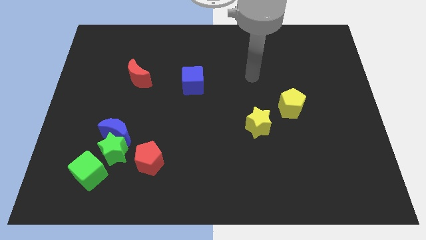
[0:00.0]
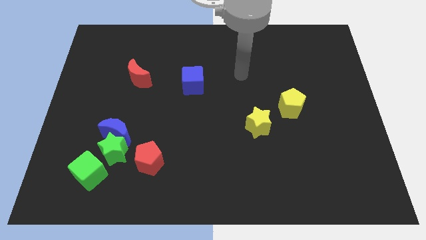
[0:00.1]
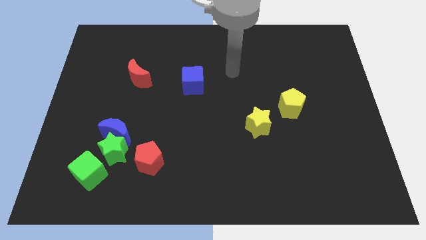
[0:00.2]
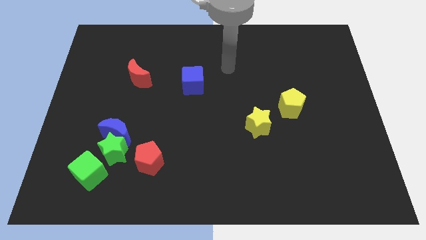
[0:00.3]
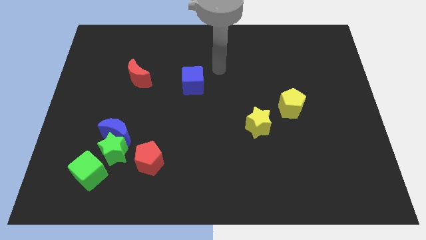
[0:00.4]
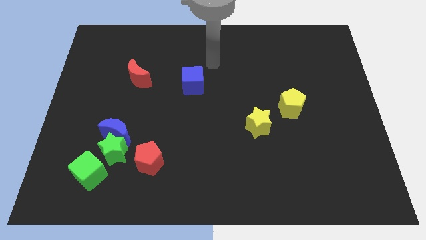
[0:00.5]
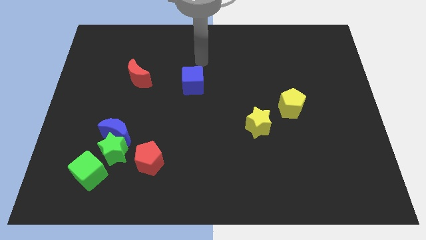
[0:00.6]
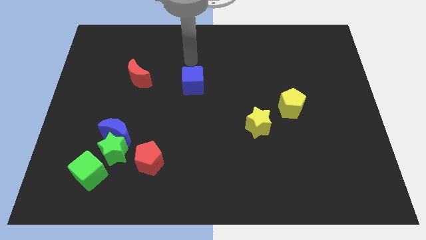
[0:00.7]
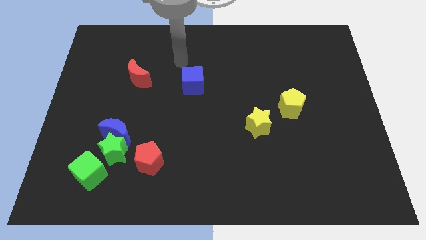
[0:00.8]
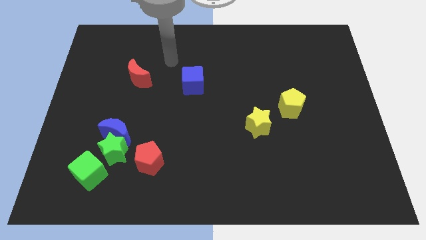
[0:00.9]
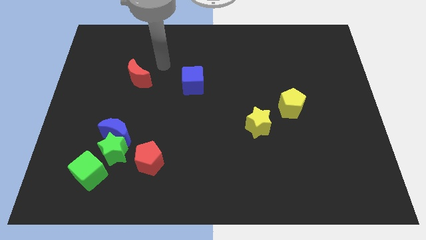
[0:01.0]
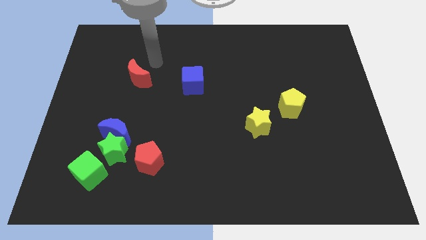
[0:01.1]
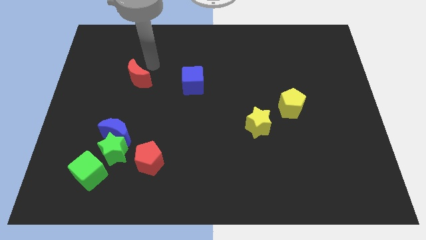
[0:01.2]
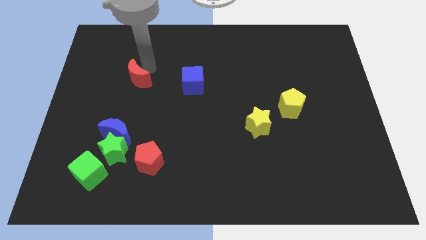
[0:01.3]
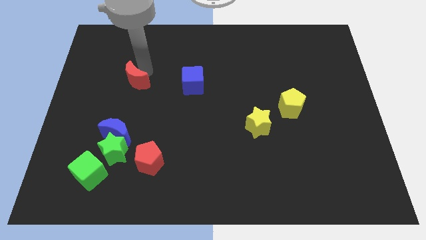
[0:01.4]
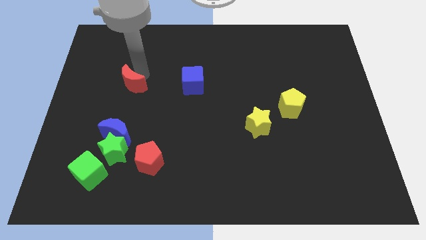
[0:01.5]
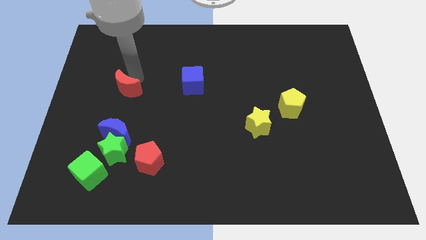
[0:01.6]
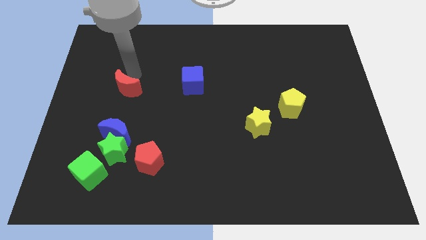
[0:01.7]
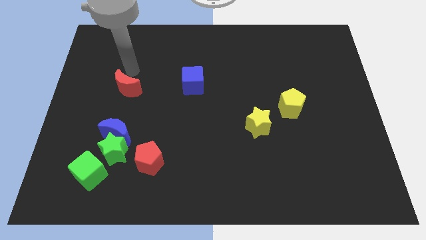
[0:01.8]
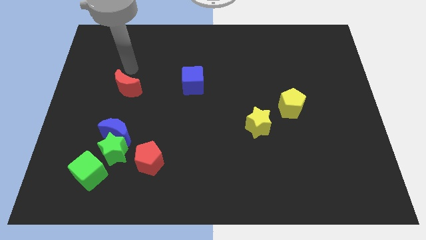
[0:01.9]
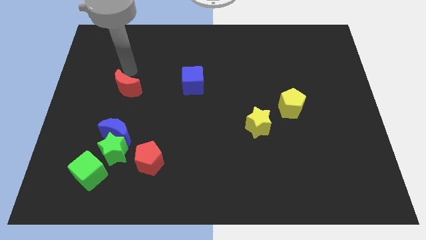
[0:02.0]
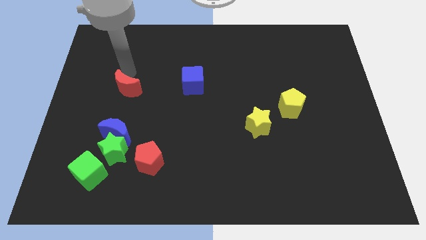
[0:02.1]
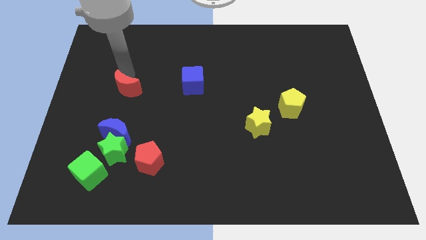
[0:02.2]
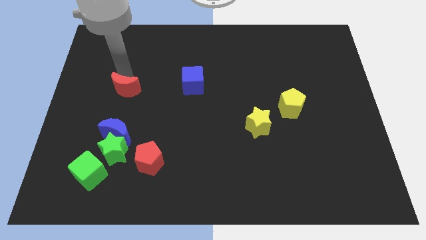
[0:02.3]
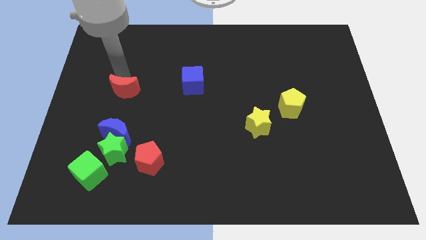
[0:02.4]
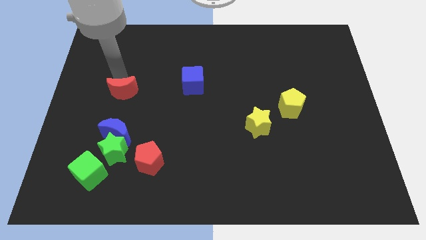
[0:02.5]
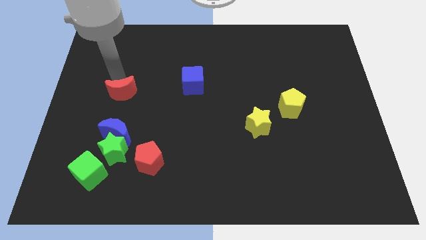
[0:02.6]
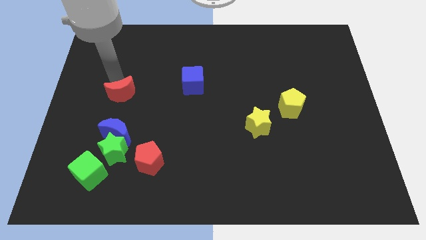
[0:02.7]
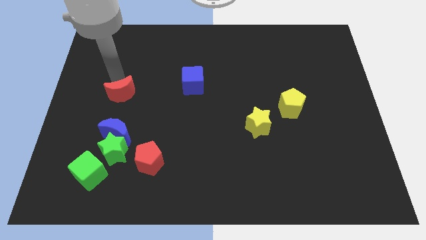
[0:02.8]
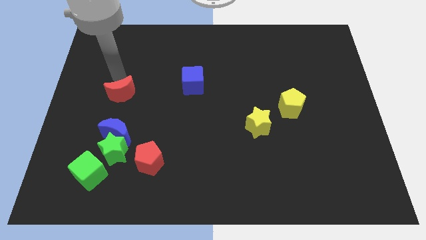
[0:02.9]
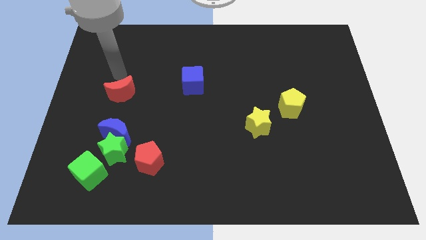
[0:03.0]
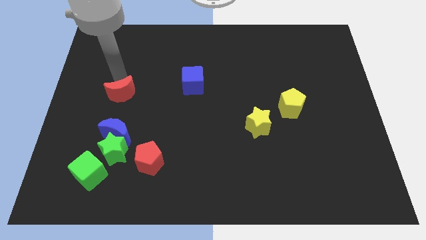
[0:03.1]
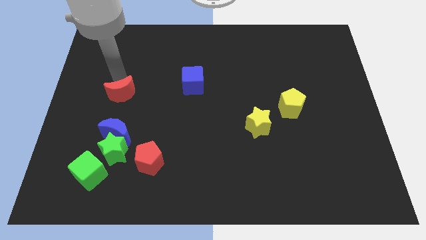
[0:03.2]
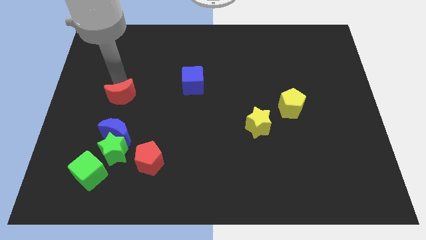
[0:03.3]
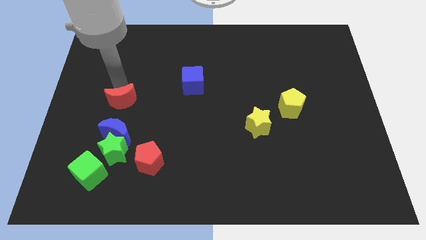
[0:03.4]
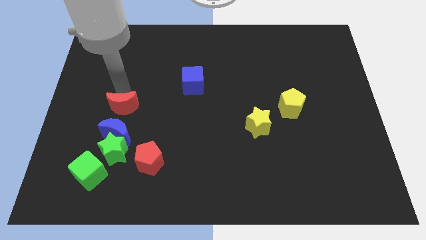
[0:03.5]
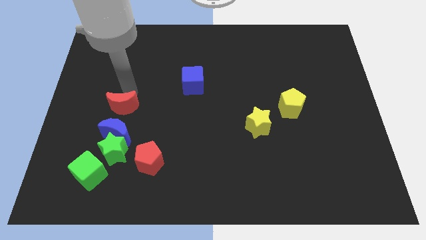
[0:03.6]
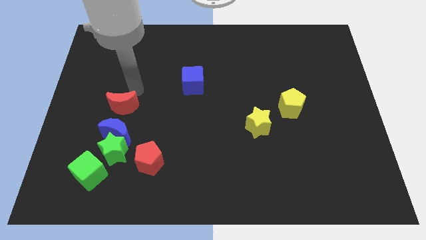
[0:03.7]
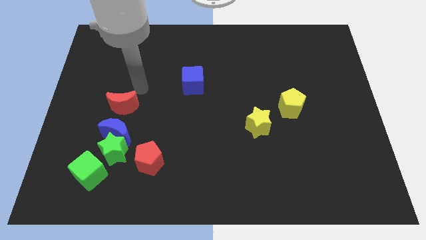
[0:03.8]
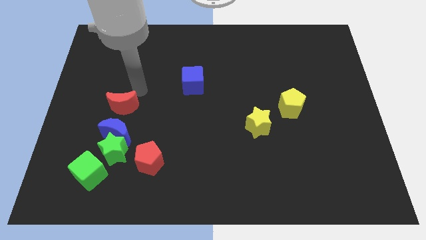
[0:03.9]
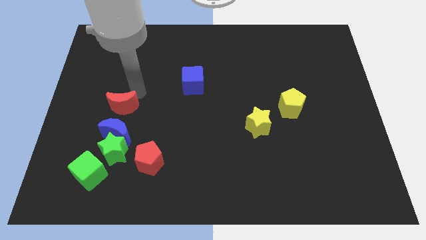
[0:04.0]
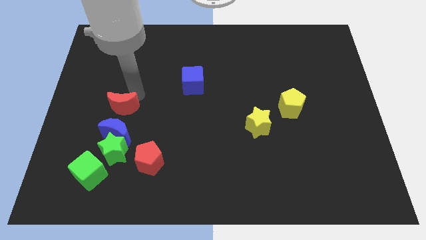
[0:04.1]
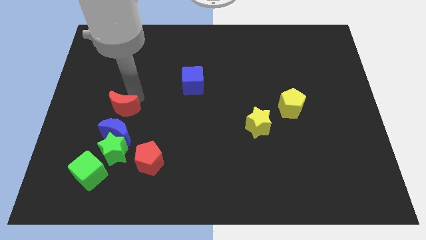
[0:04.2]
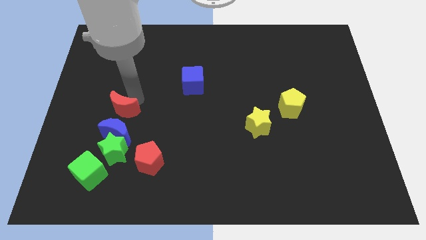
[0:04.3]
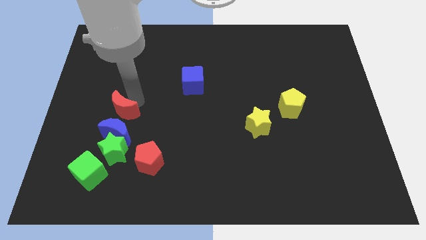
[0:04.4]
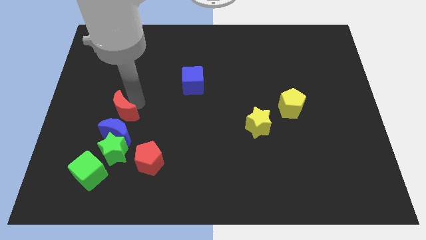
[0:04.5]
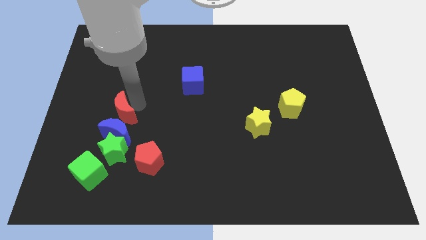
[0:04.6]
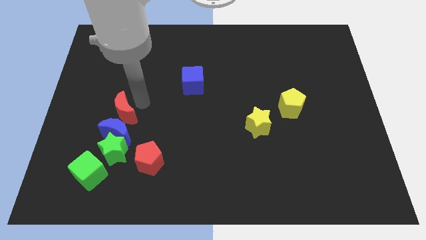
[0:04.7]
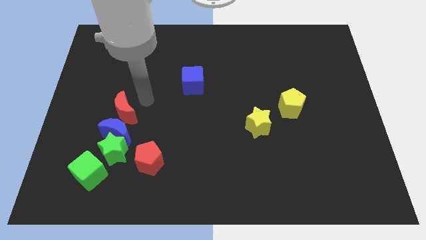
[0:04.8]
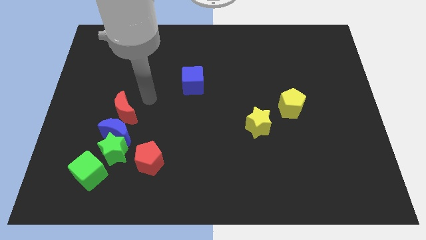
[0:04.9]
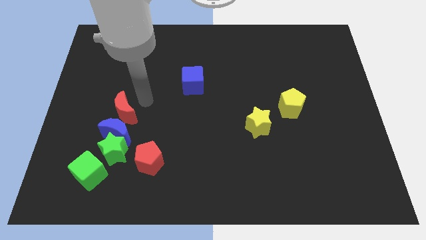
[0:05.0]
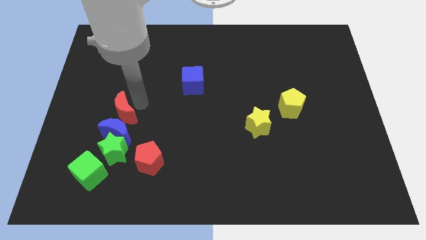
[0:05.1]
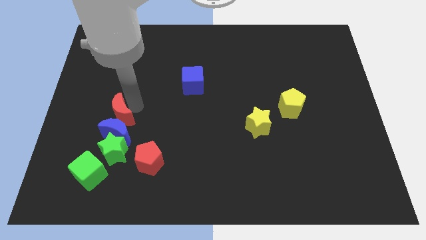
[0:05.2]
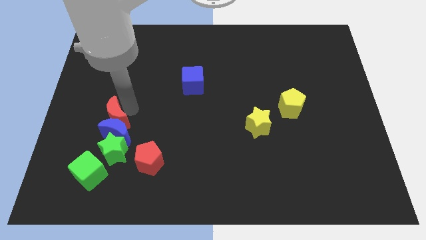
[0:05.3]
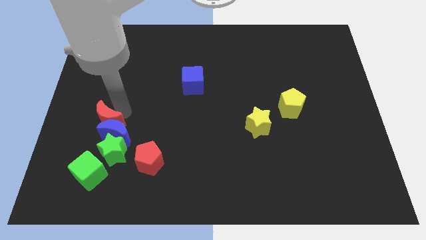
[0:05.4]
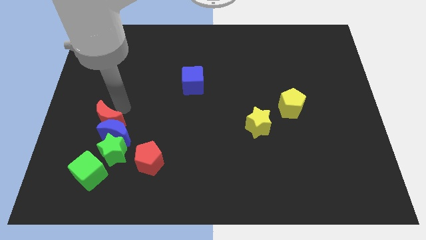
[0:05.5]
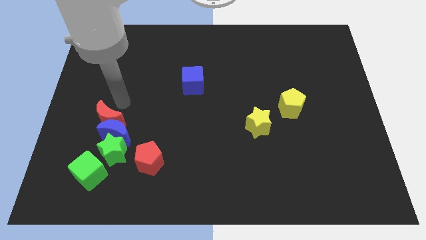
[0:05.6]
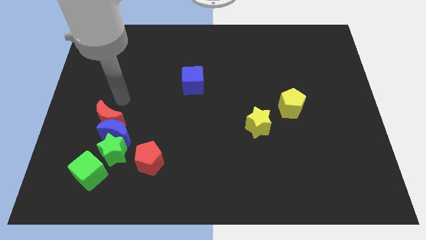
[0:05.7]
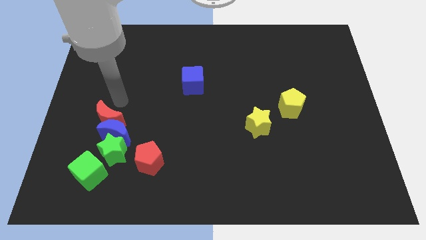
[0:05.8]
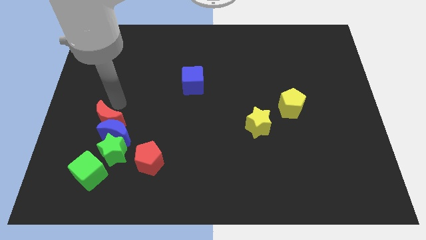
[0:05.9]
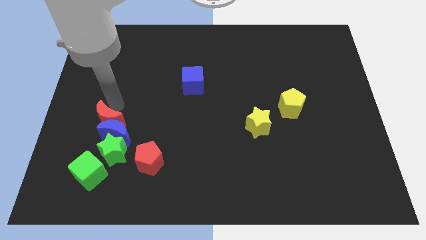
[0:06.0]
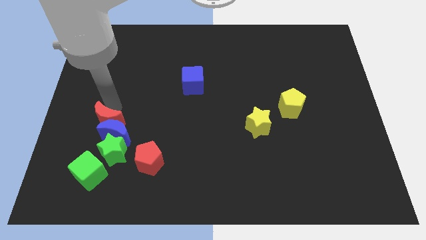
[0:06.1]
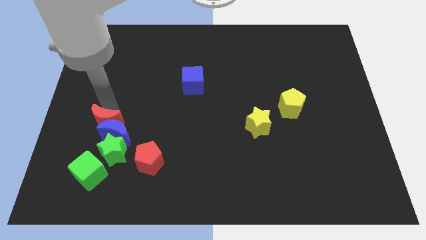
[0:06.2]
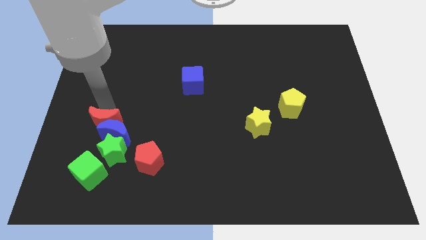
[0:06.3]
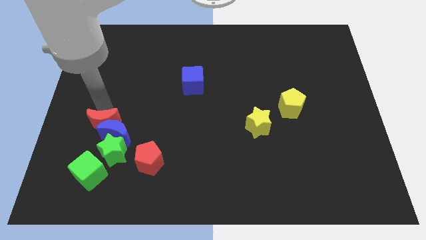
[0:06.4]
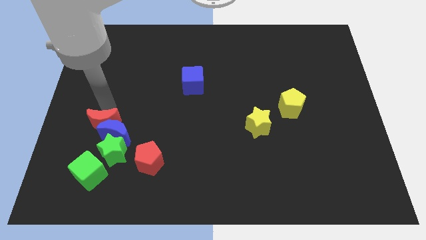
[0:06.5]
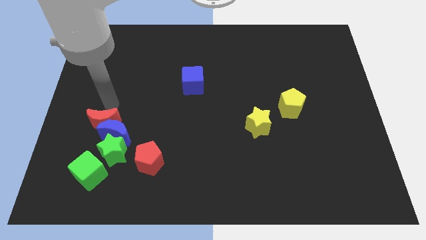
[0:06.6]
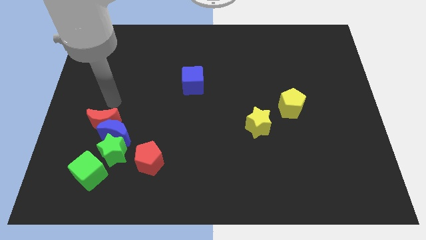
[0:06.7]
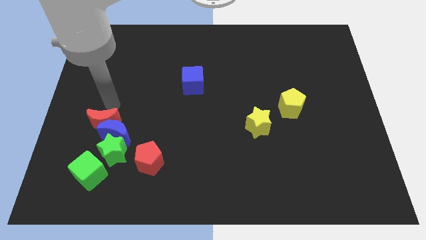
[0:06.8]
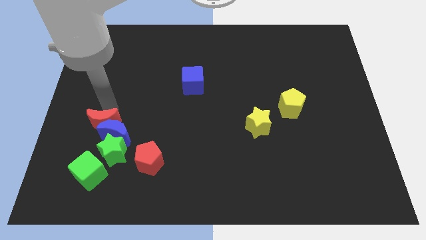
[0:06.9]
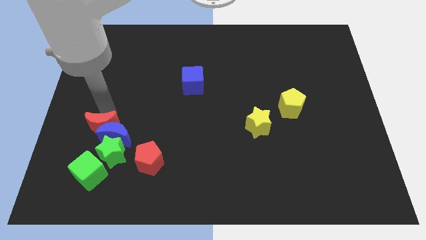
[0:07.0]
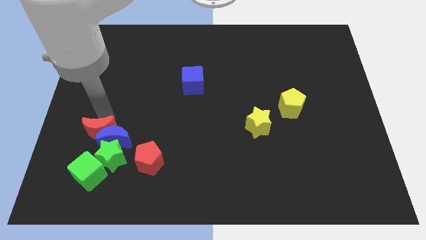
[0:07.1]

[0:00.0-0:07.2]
put the red moon to the bottom left of the blue moon
